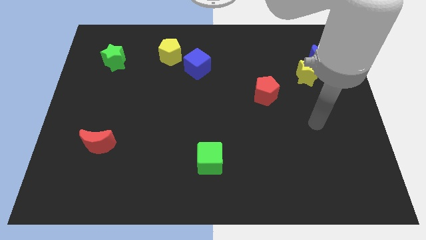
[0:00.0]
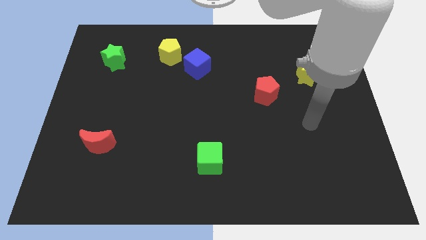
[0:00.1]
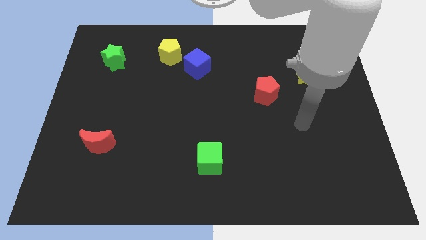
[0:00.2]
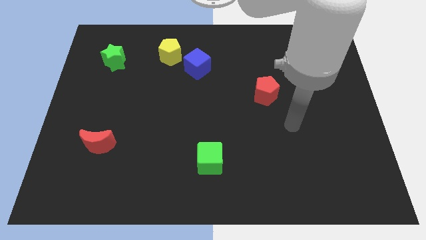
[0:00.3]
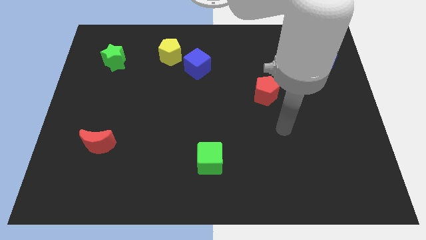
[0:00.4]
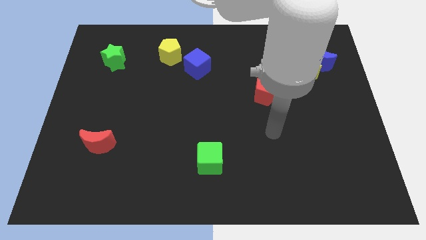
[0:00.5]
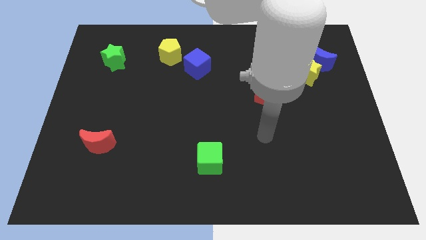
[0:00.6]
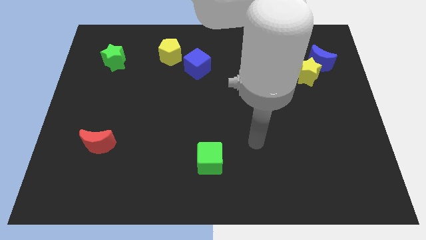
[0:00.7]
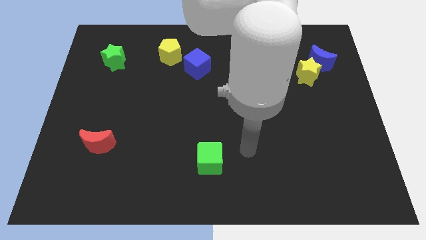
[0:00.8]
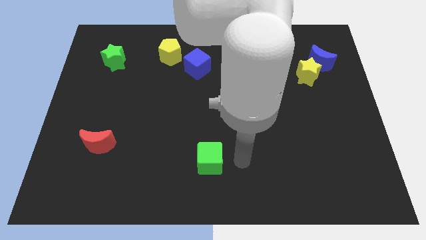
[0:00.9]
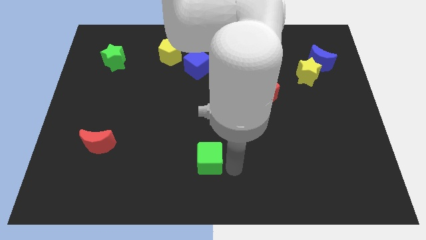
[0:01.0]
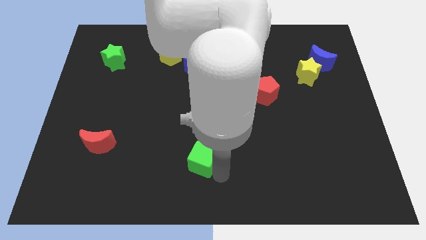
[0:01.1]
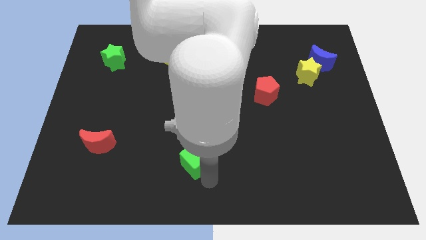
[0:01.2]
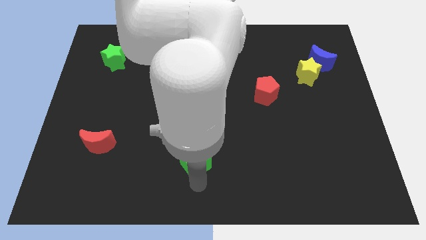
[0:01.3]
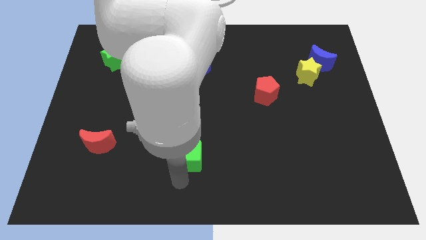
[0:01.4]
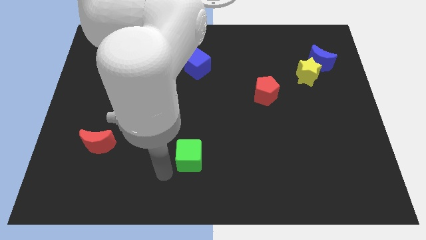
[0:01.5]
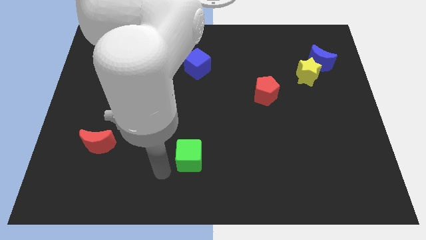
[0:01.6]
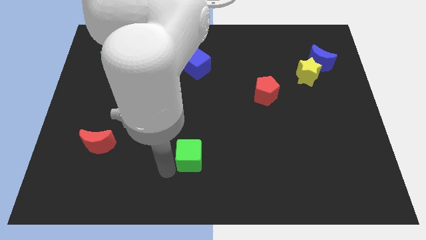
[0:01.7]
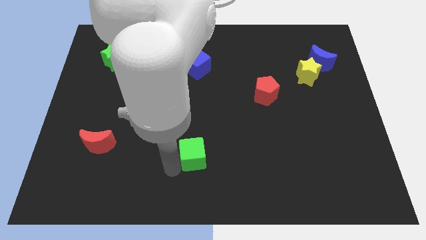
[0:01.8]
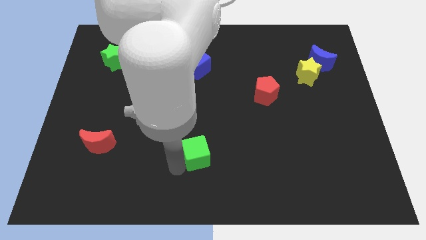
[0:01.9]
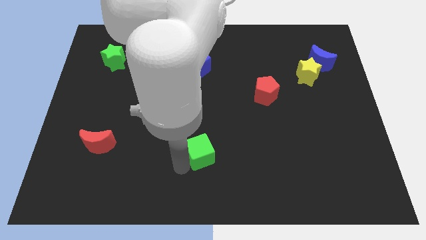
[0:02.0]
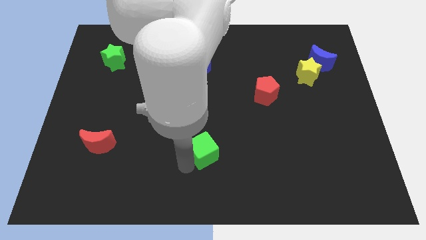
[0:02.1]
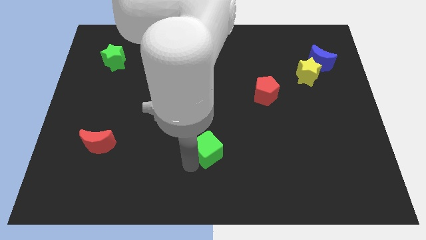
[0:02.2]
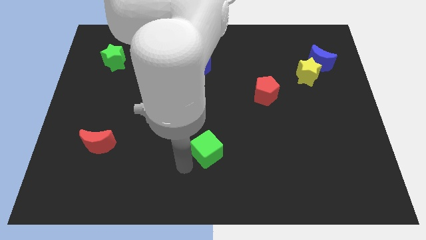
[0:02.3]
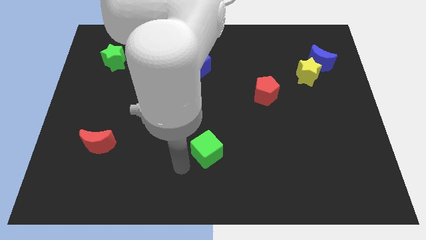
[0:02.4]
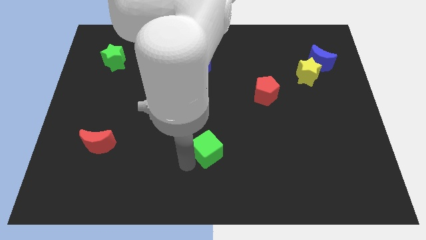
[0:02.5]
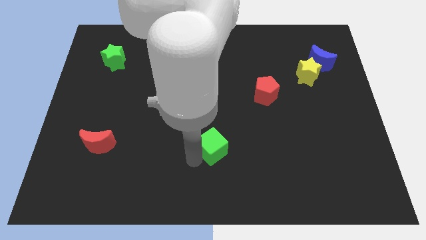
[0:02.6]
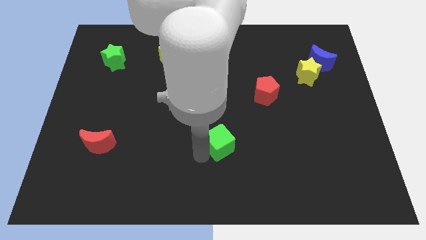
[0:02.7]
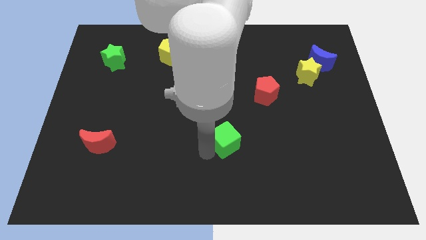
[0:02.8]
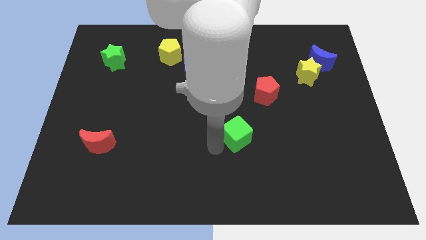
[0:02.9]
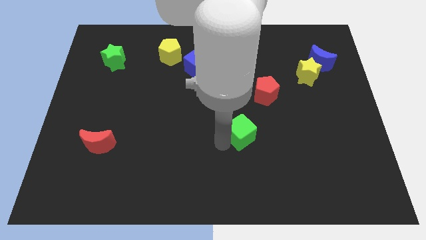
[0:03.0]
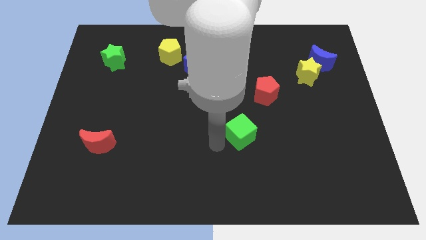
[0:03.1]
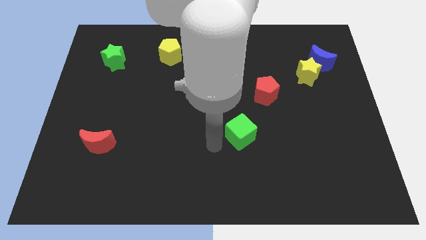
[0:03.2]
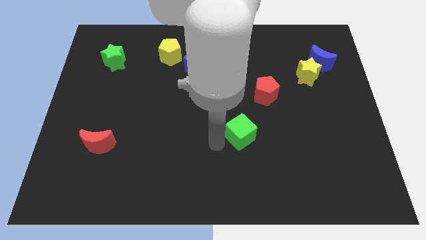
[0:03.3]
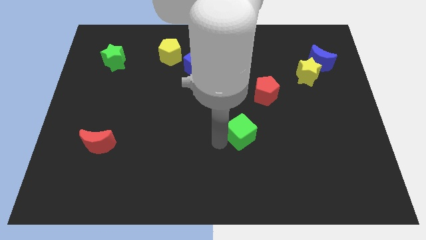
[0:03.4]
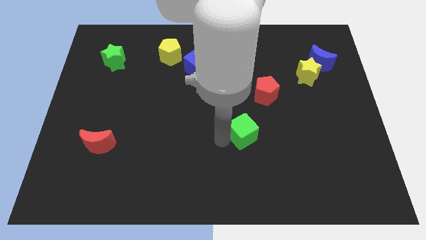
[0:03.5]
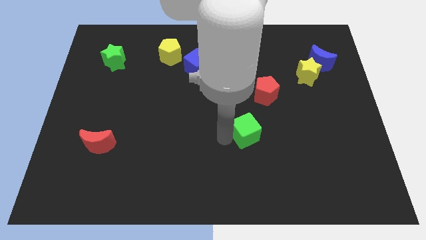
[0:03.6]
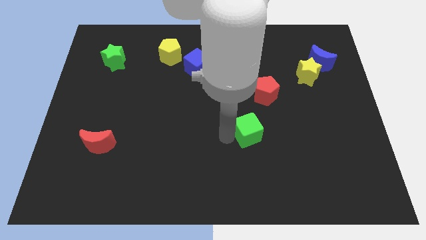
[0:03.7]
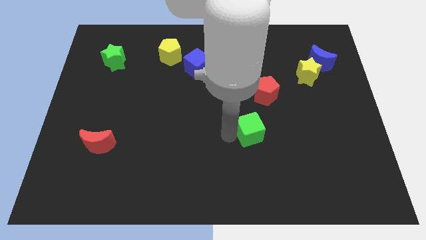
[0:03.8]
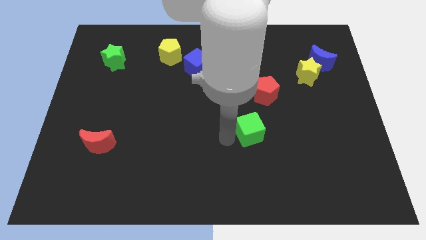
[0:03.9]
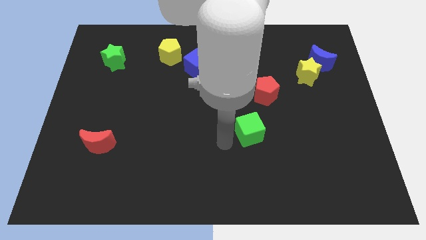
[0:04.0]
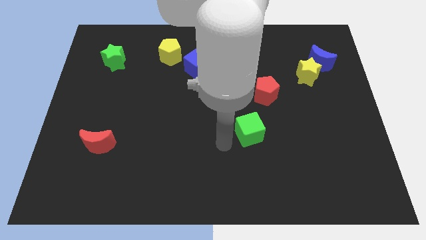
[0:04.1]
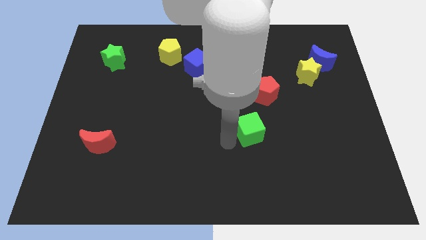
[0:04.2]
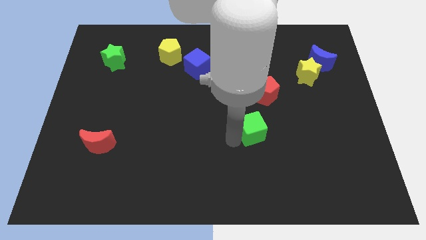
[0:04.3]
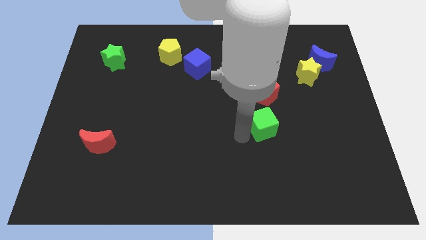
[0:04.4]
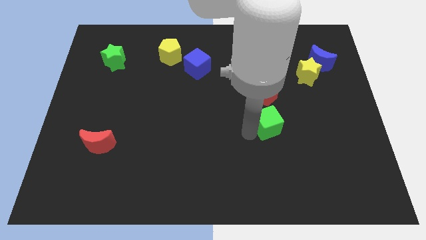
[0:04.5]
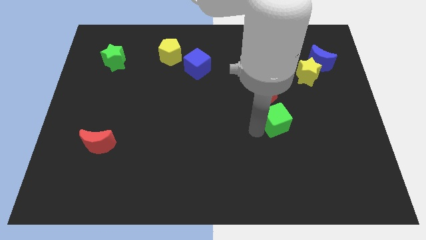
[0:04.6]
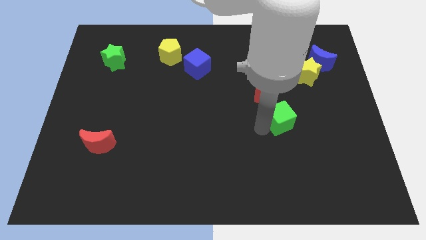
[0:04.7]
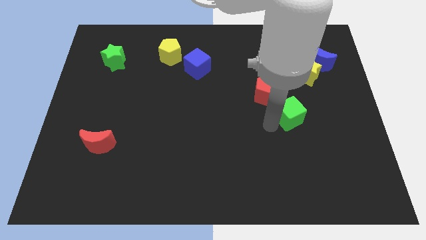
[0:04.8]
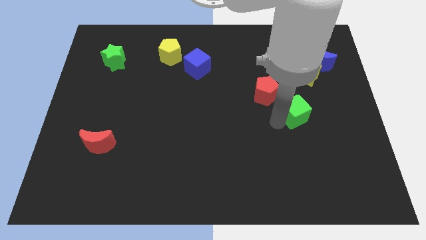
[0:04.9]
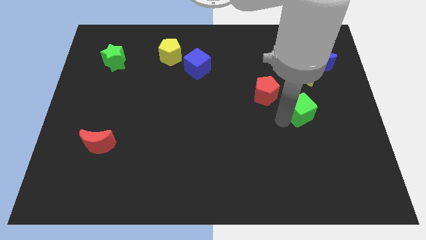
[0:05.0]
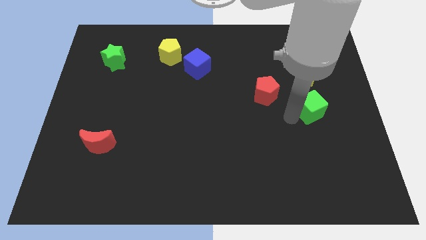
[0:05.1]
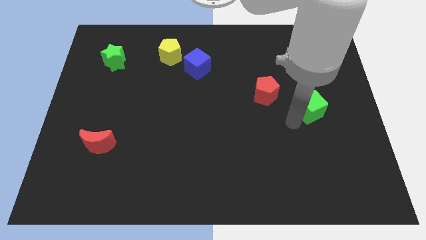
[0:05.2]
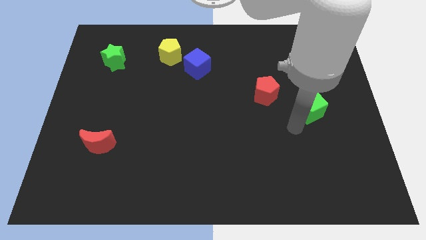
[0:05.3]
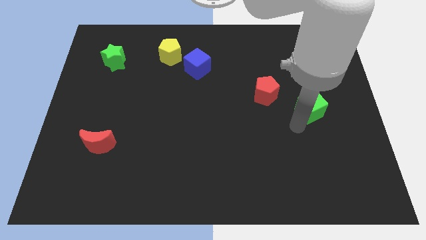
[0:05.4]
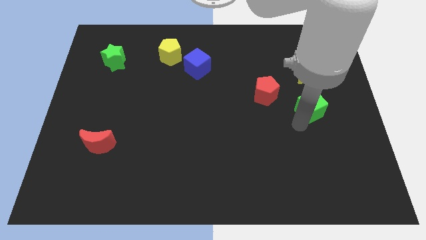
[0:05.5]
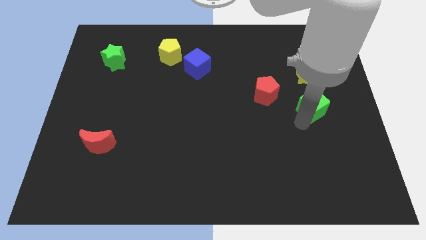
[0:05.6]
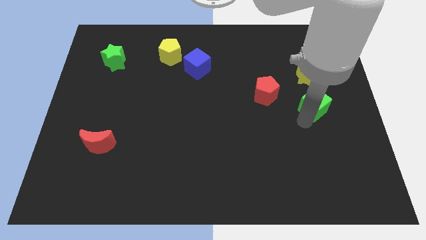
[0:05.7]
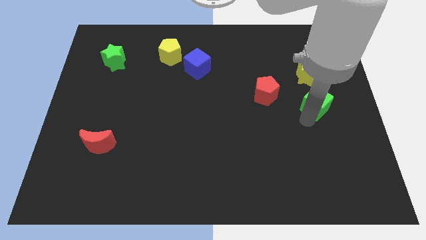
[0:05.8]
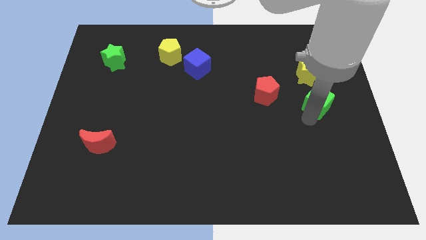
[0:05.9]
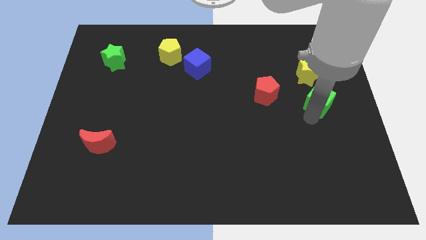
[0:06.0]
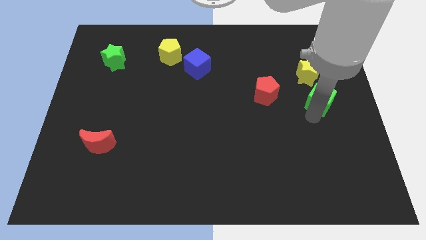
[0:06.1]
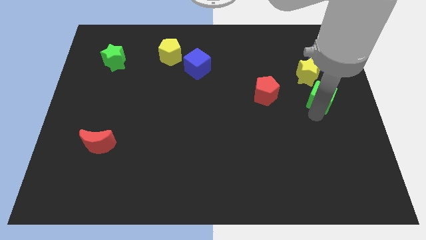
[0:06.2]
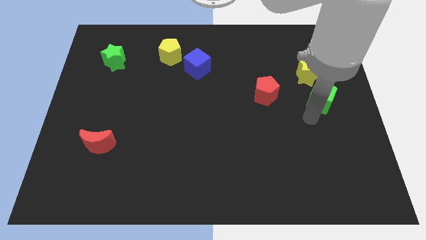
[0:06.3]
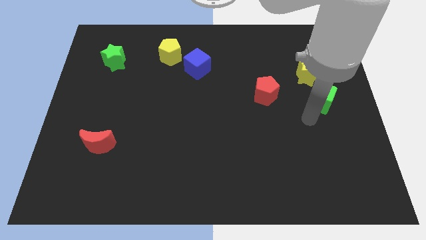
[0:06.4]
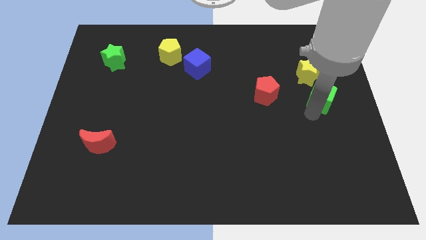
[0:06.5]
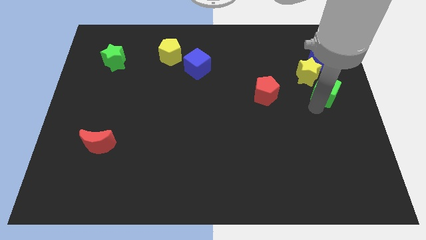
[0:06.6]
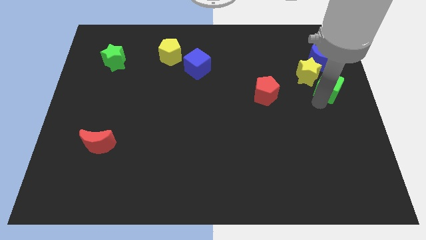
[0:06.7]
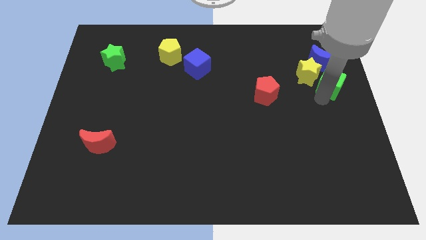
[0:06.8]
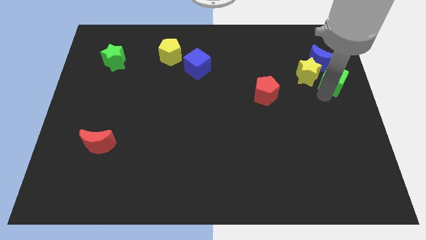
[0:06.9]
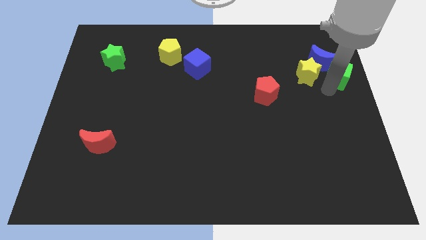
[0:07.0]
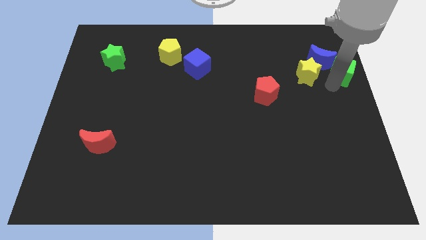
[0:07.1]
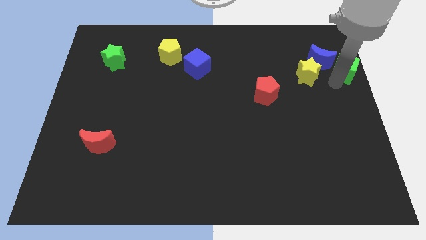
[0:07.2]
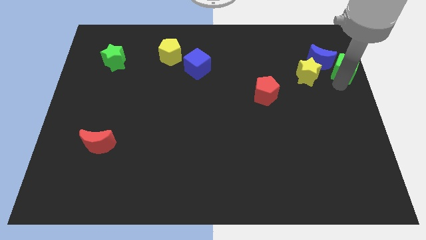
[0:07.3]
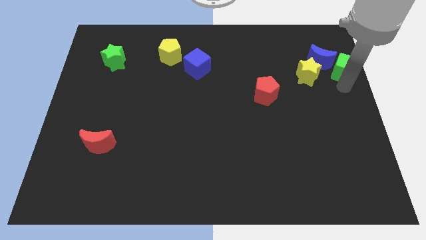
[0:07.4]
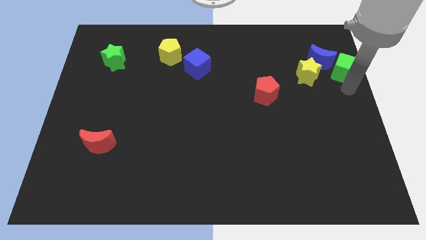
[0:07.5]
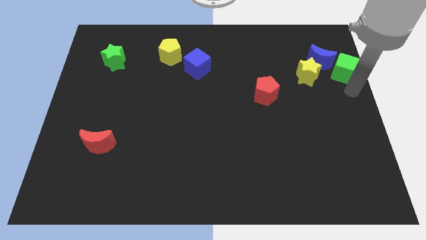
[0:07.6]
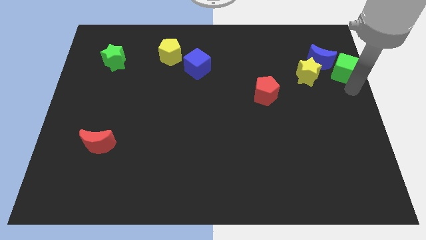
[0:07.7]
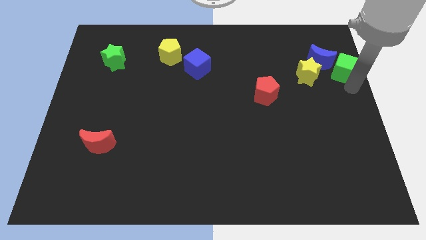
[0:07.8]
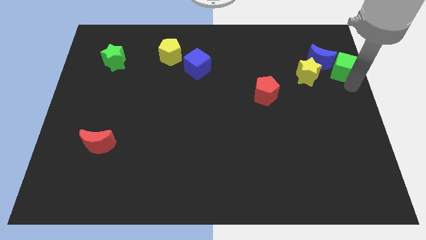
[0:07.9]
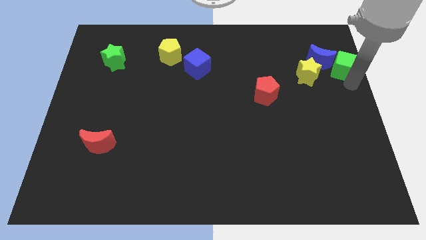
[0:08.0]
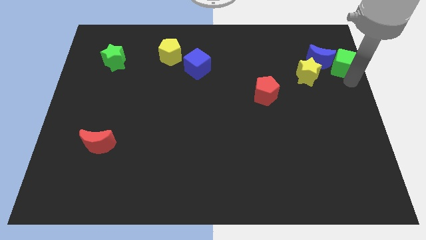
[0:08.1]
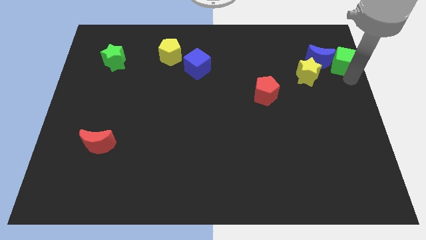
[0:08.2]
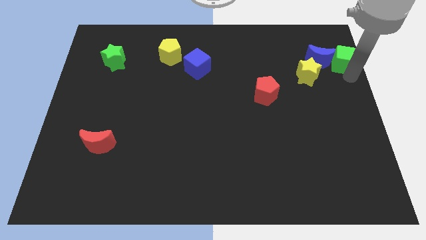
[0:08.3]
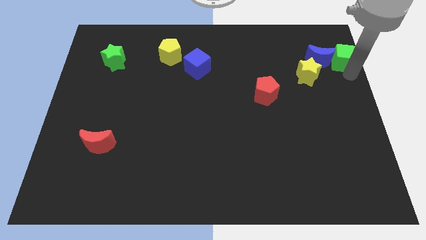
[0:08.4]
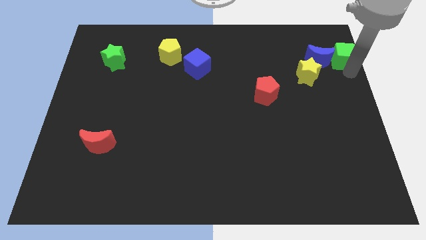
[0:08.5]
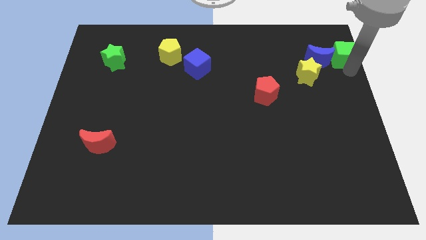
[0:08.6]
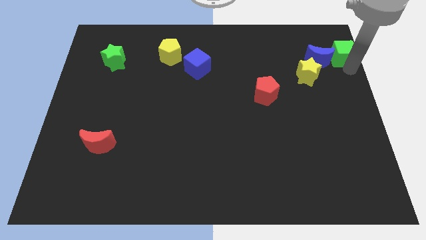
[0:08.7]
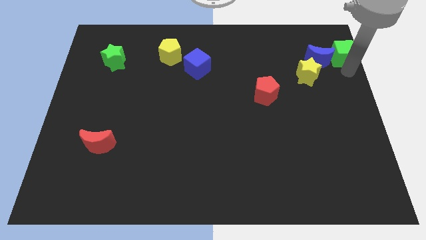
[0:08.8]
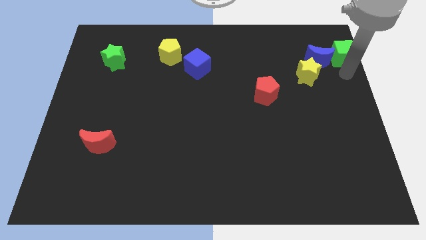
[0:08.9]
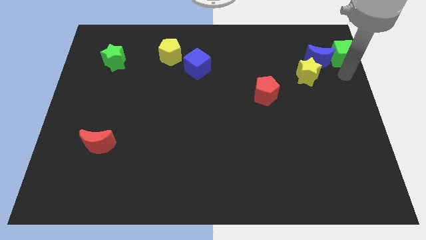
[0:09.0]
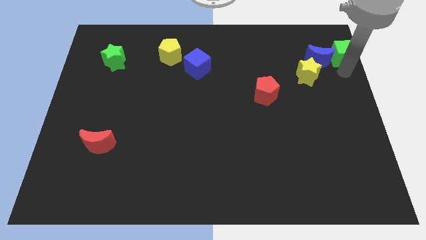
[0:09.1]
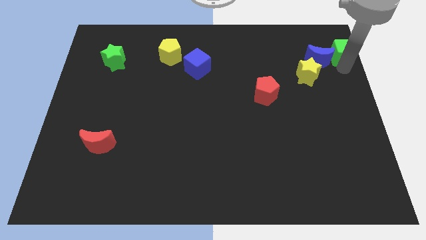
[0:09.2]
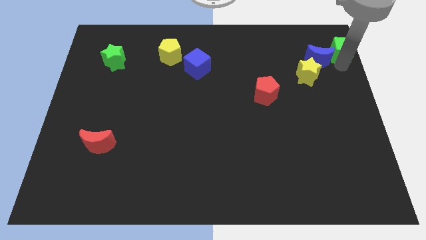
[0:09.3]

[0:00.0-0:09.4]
move the green cube to the top right of the board
